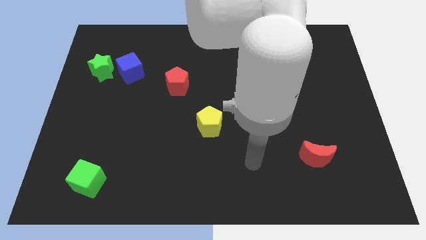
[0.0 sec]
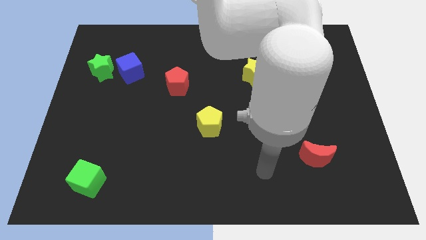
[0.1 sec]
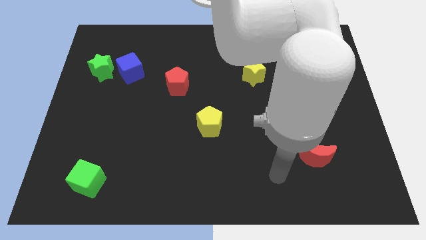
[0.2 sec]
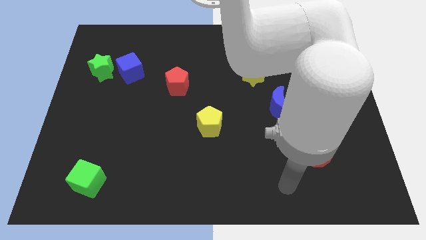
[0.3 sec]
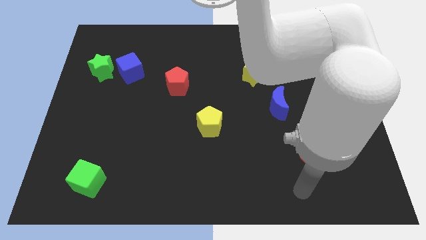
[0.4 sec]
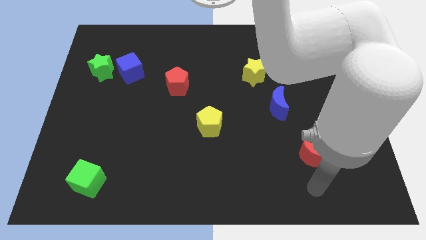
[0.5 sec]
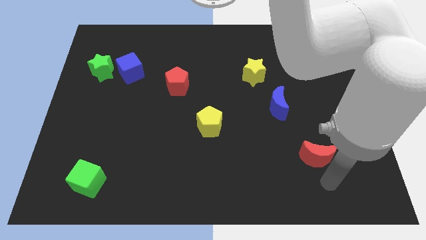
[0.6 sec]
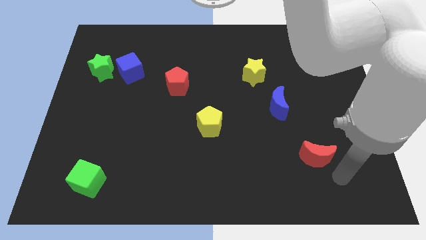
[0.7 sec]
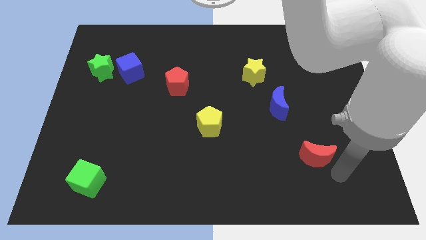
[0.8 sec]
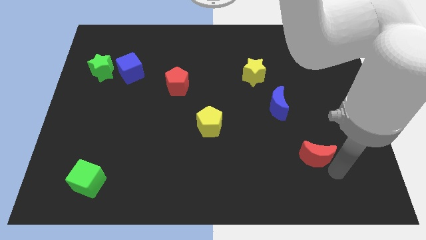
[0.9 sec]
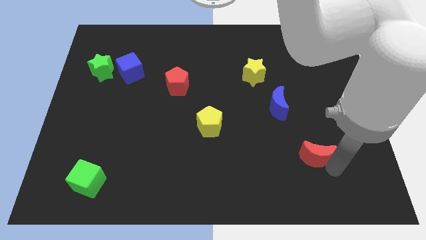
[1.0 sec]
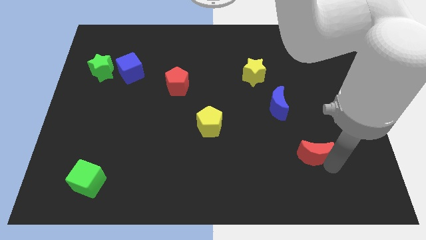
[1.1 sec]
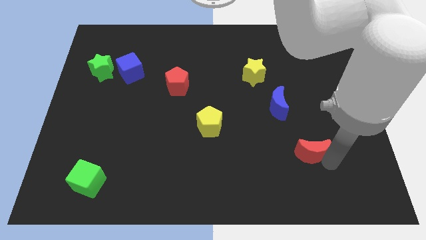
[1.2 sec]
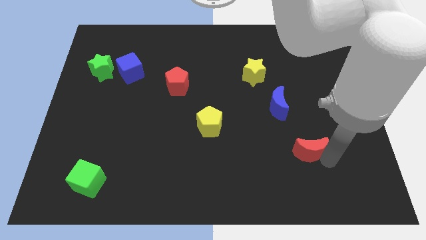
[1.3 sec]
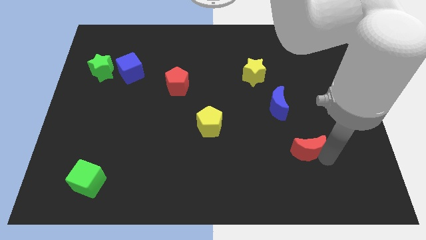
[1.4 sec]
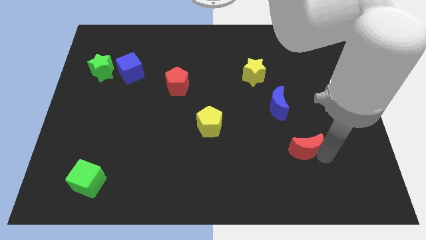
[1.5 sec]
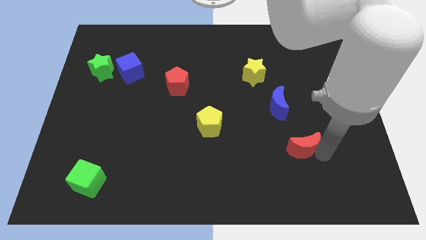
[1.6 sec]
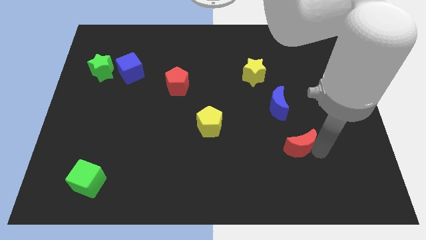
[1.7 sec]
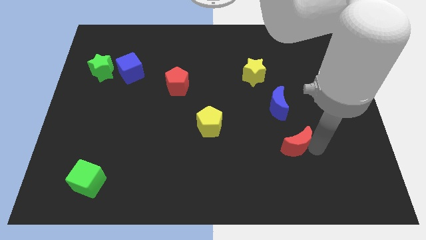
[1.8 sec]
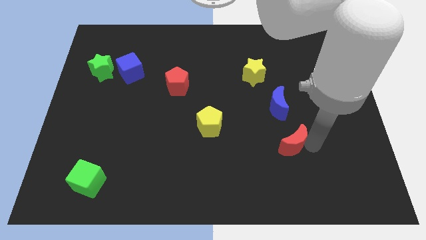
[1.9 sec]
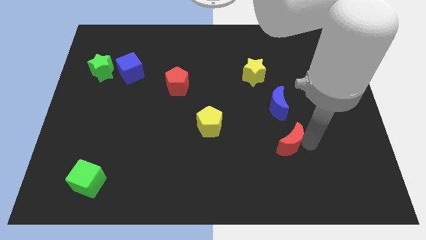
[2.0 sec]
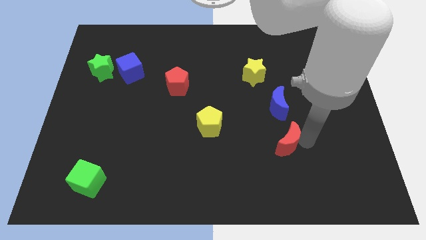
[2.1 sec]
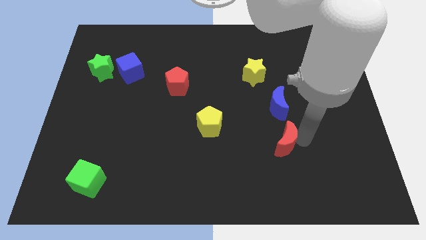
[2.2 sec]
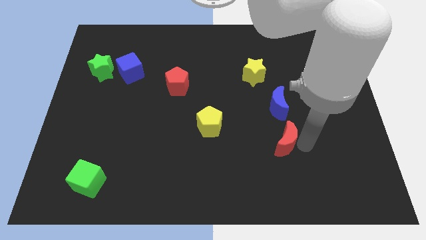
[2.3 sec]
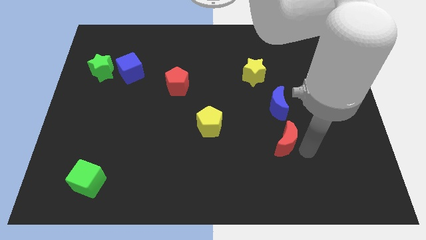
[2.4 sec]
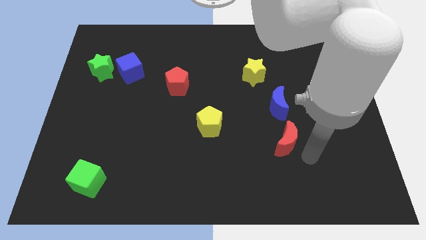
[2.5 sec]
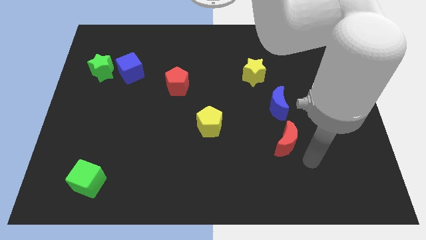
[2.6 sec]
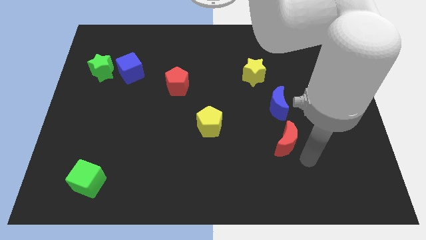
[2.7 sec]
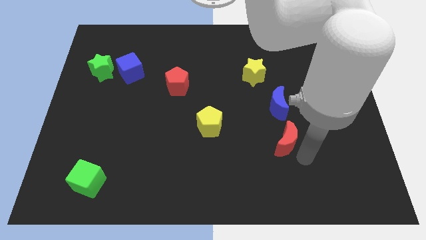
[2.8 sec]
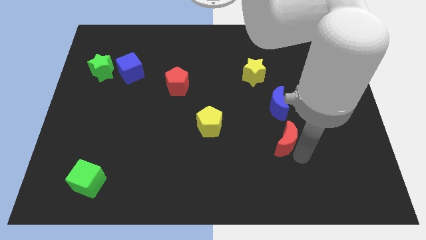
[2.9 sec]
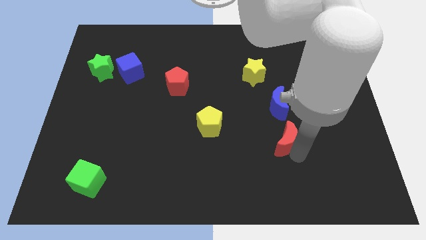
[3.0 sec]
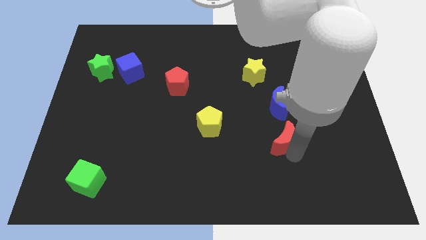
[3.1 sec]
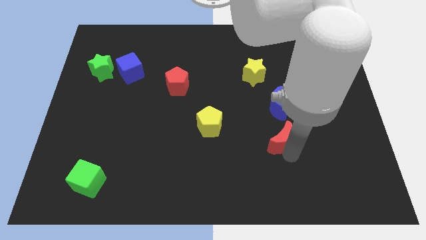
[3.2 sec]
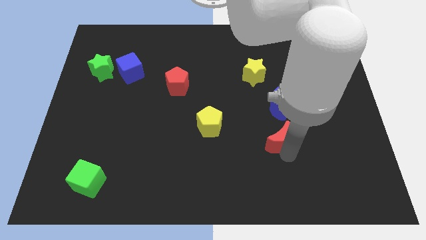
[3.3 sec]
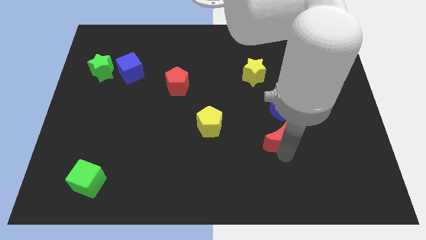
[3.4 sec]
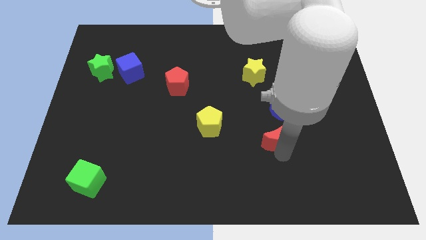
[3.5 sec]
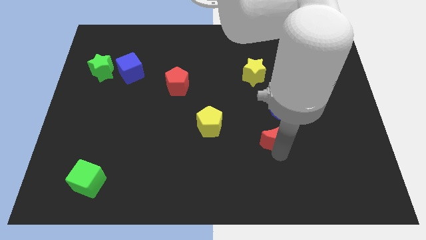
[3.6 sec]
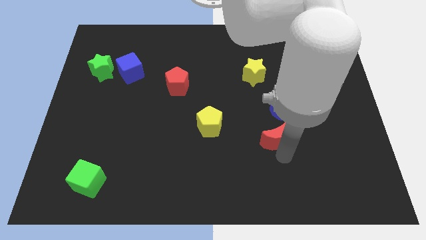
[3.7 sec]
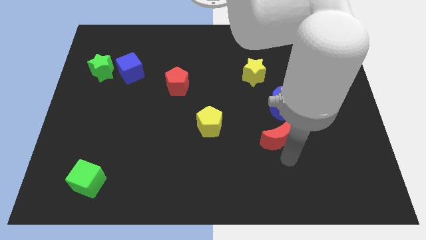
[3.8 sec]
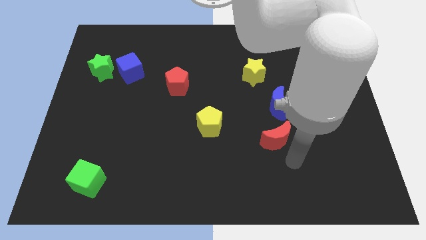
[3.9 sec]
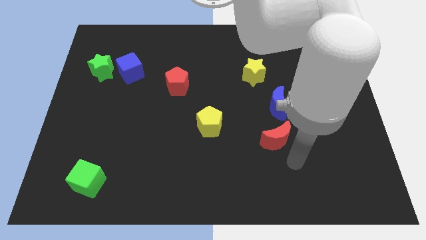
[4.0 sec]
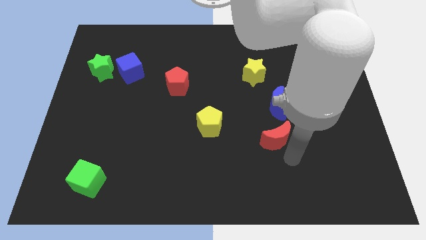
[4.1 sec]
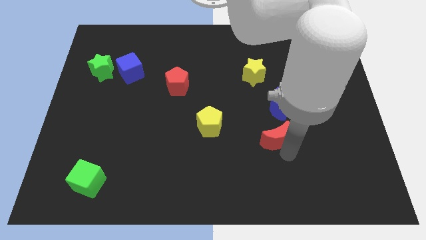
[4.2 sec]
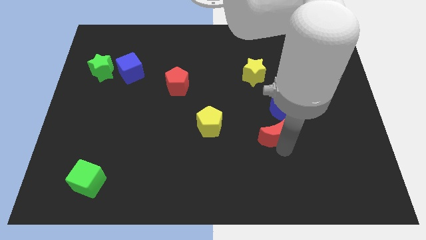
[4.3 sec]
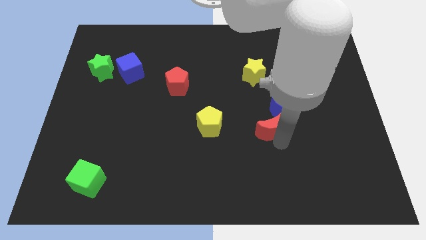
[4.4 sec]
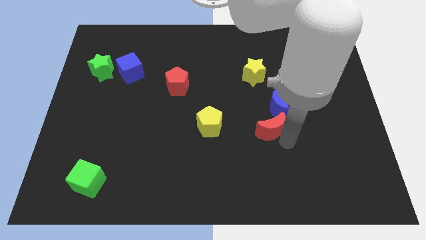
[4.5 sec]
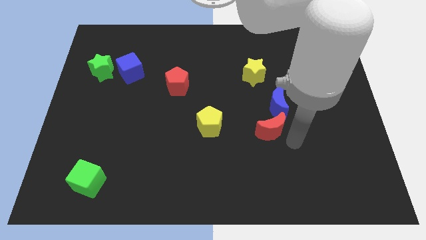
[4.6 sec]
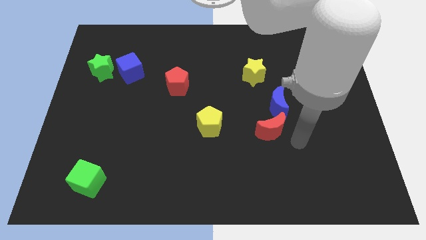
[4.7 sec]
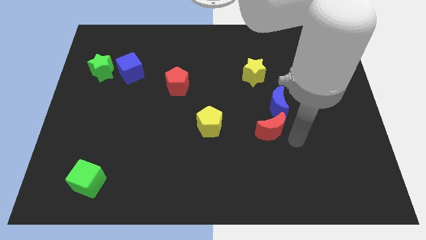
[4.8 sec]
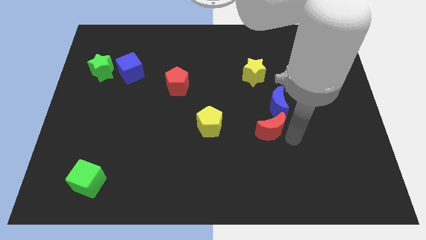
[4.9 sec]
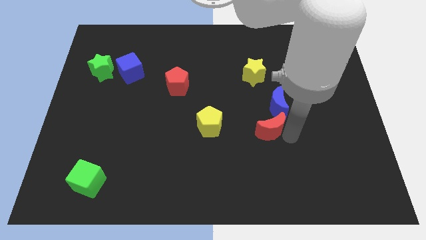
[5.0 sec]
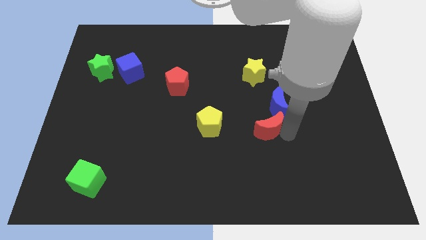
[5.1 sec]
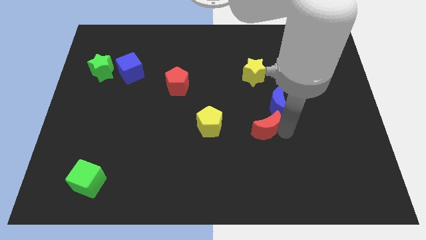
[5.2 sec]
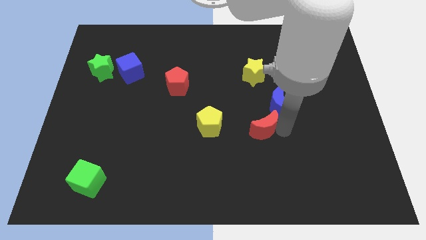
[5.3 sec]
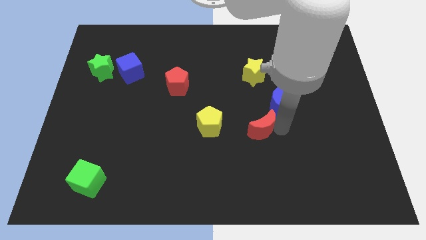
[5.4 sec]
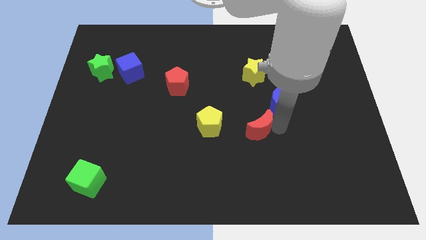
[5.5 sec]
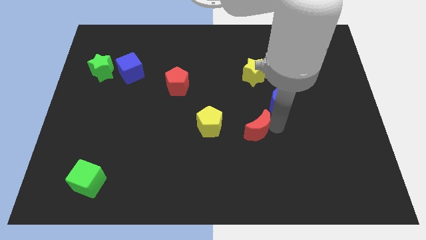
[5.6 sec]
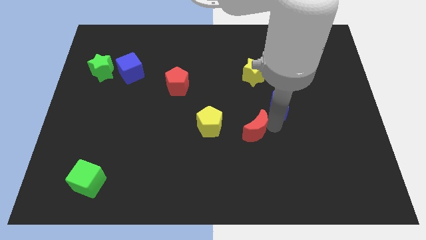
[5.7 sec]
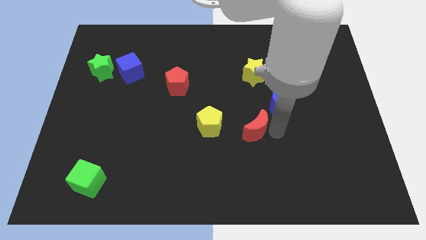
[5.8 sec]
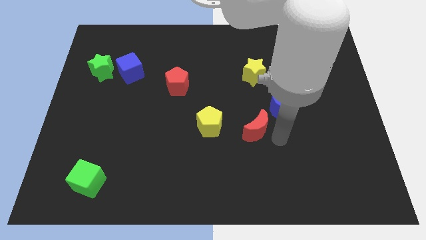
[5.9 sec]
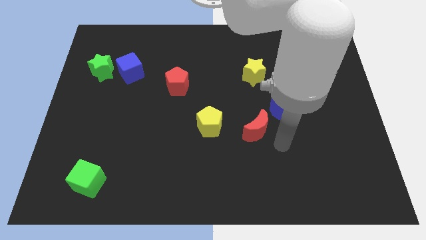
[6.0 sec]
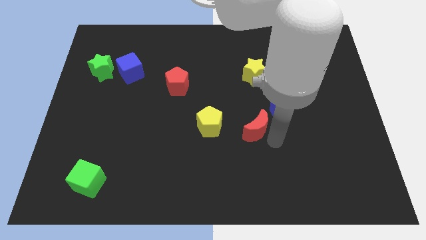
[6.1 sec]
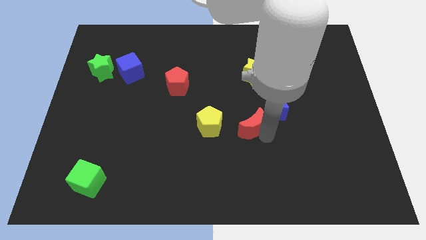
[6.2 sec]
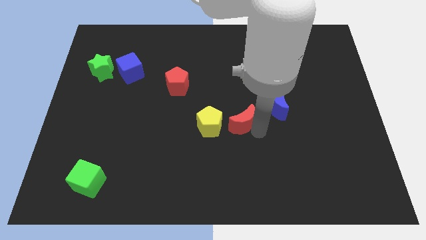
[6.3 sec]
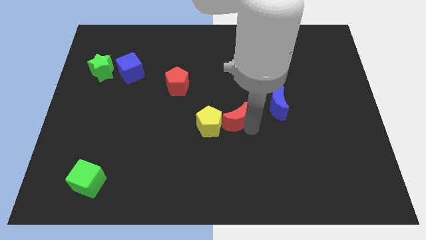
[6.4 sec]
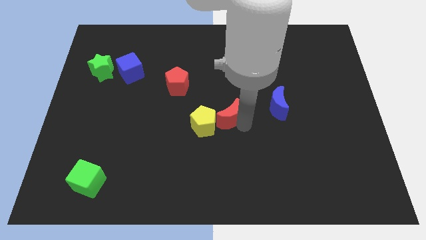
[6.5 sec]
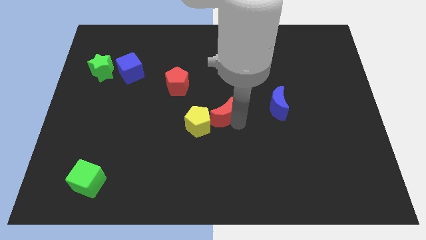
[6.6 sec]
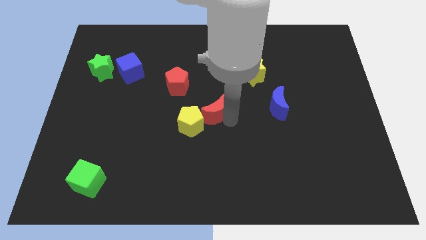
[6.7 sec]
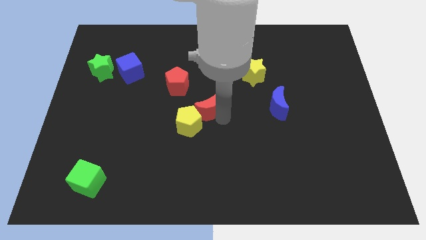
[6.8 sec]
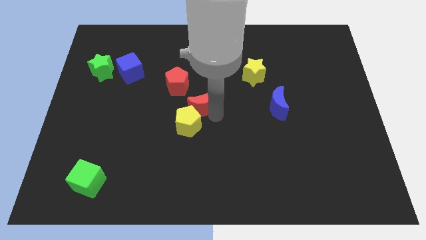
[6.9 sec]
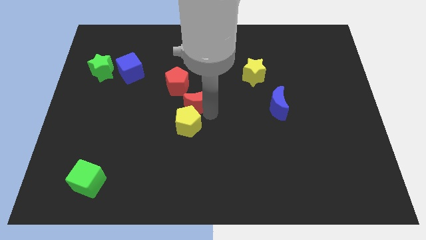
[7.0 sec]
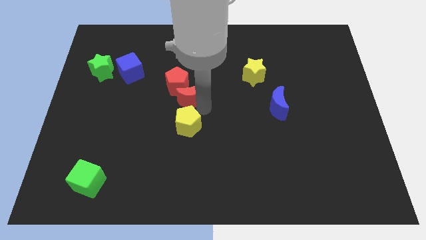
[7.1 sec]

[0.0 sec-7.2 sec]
push the red moon to the red pentagon

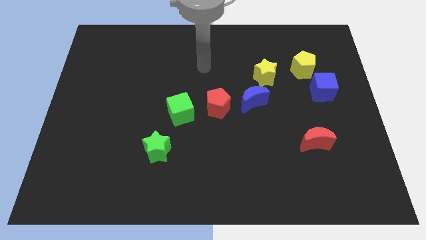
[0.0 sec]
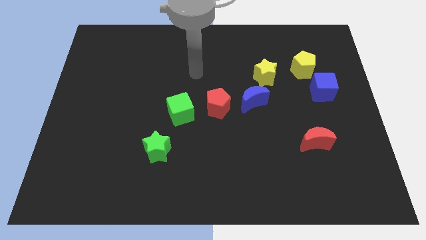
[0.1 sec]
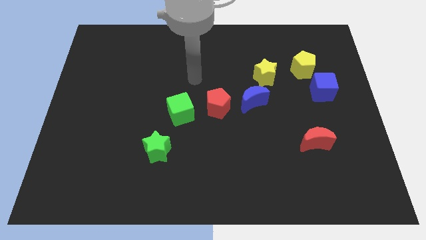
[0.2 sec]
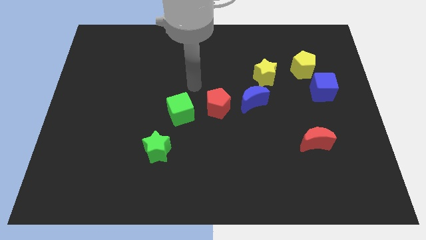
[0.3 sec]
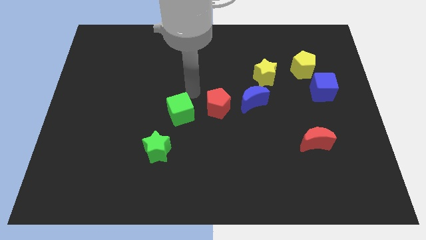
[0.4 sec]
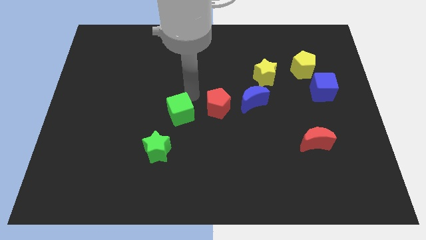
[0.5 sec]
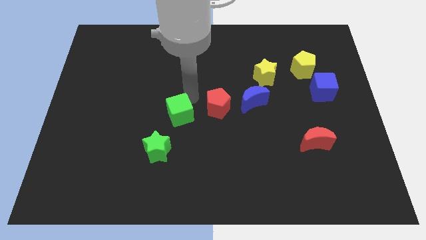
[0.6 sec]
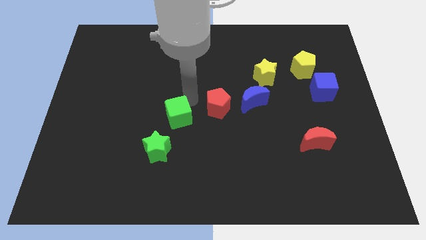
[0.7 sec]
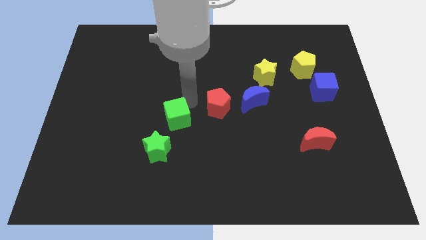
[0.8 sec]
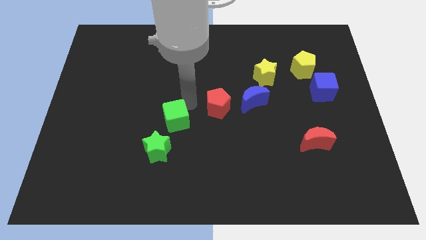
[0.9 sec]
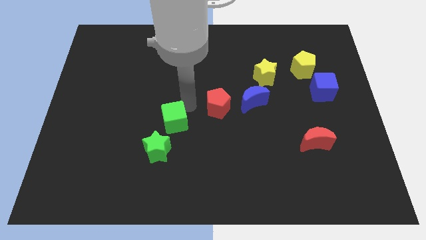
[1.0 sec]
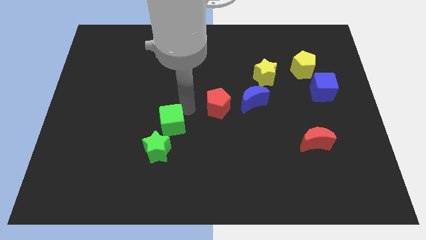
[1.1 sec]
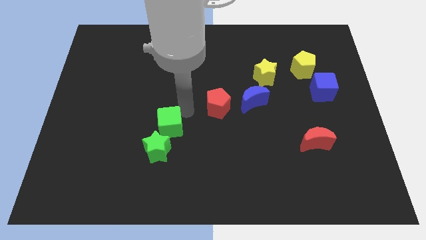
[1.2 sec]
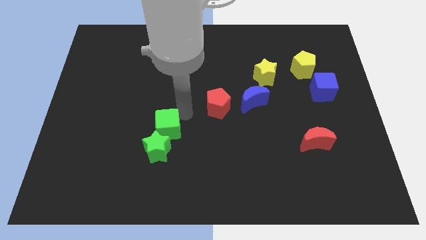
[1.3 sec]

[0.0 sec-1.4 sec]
push the green cube close to the green star
